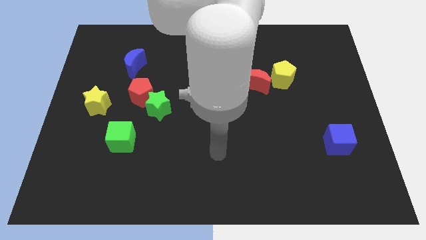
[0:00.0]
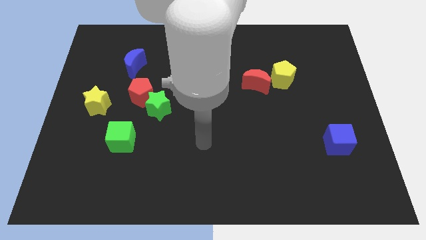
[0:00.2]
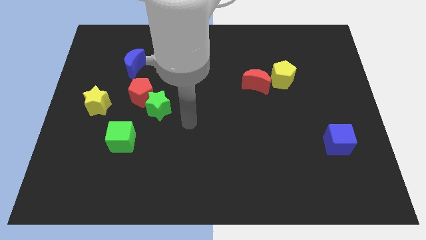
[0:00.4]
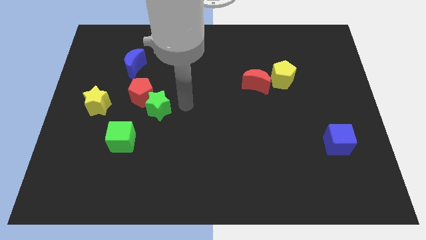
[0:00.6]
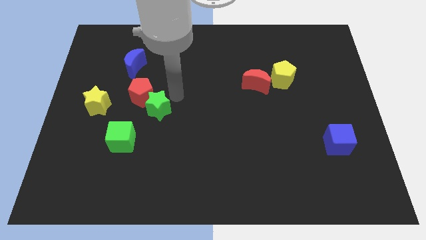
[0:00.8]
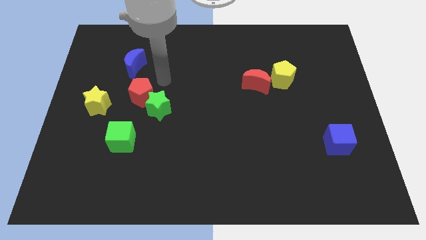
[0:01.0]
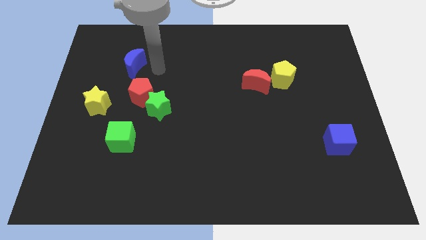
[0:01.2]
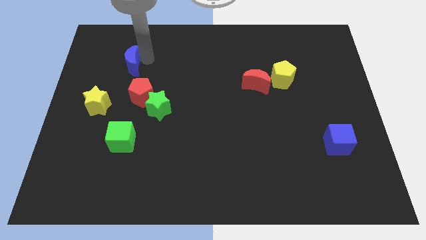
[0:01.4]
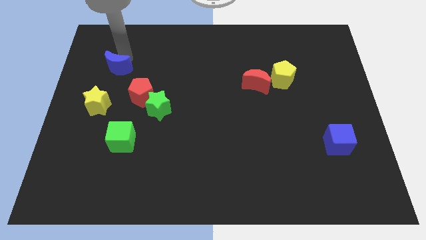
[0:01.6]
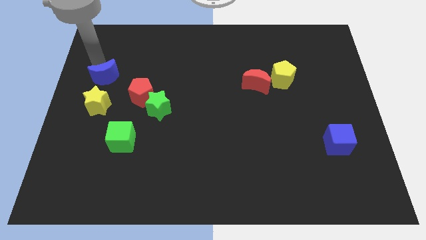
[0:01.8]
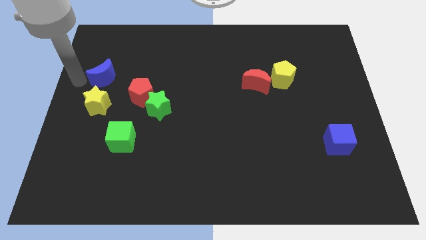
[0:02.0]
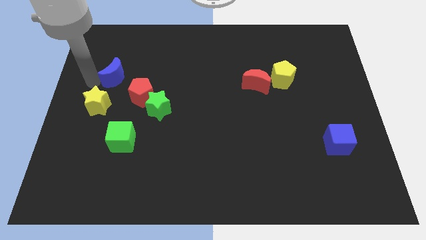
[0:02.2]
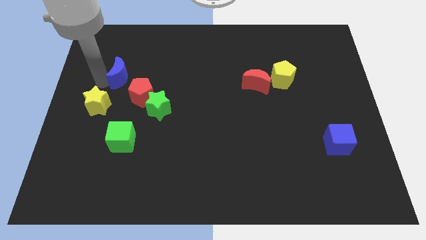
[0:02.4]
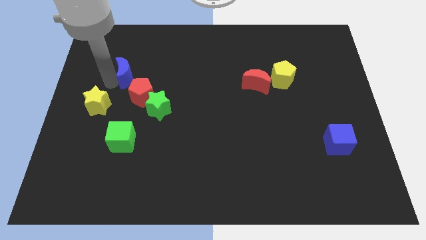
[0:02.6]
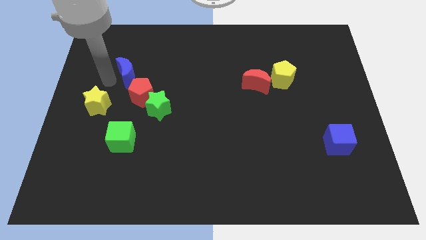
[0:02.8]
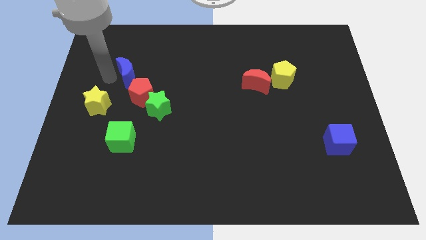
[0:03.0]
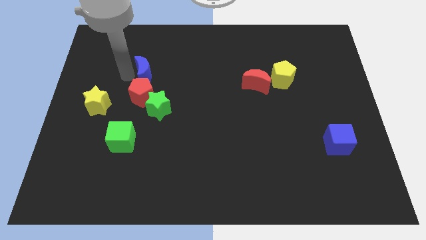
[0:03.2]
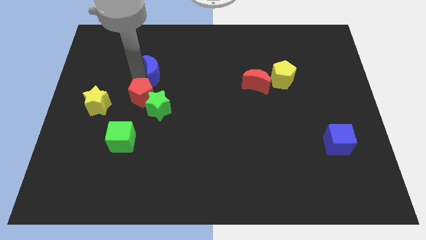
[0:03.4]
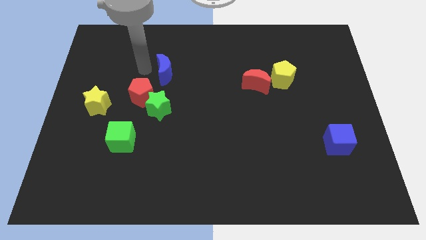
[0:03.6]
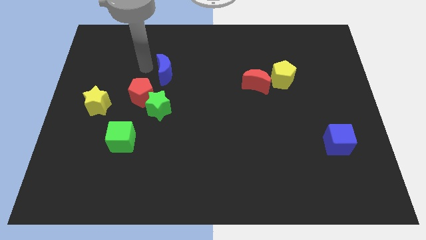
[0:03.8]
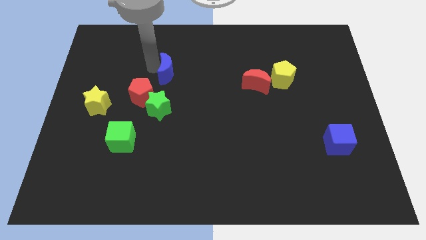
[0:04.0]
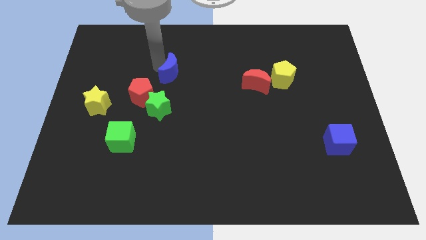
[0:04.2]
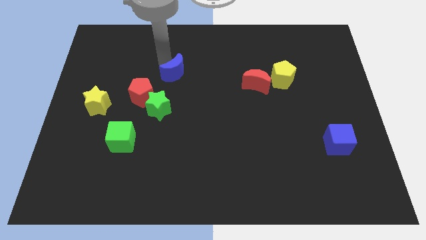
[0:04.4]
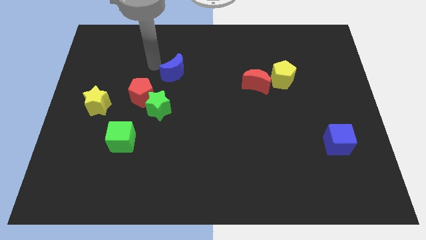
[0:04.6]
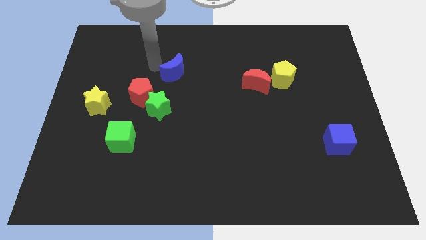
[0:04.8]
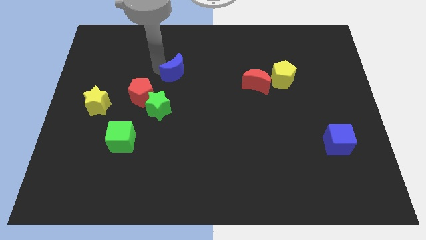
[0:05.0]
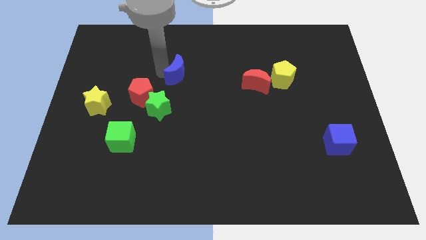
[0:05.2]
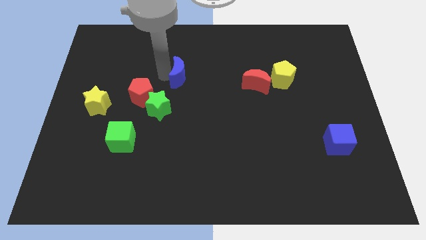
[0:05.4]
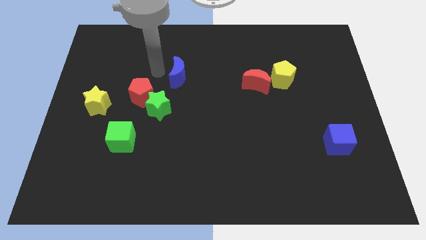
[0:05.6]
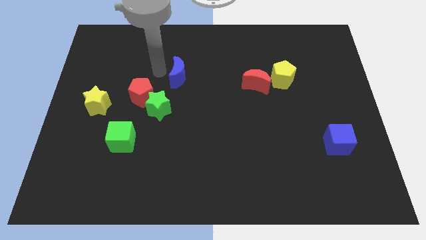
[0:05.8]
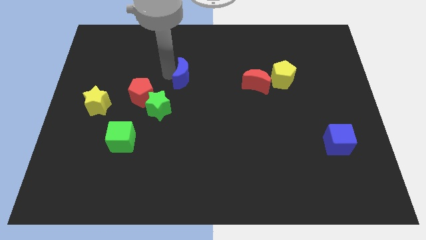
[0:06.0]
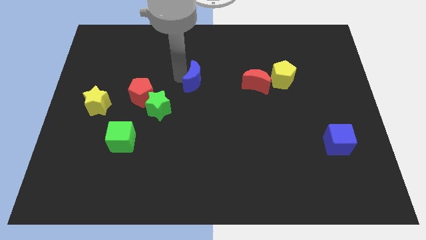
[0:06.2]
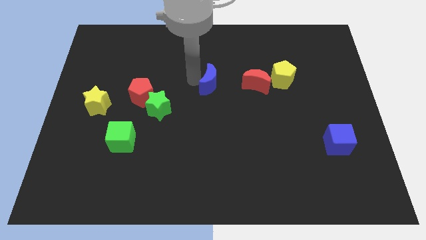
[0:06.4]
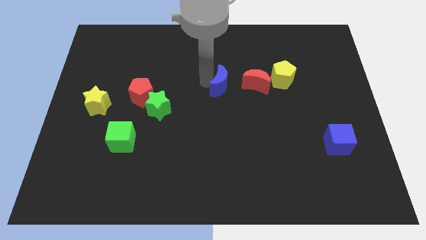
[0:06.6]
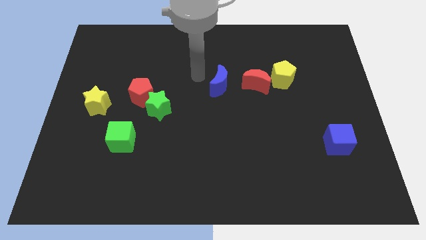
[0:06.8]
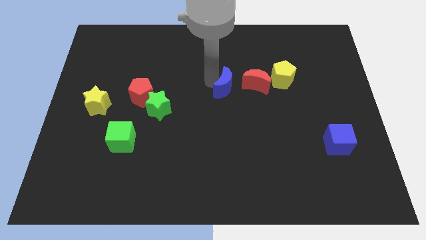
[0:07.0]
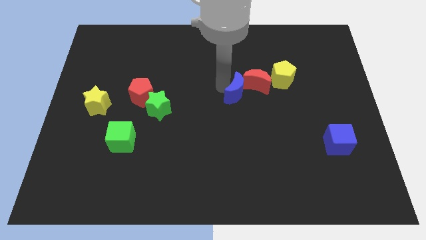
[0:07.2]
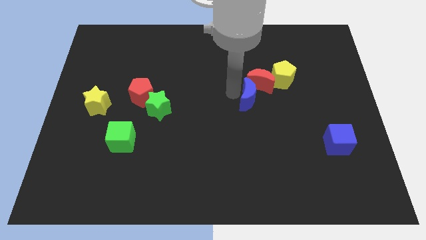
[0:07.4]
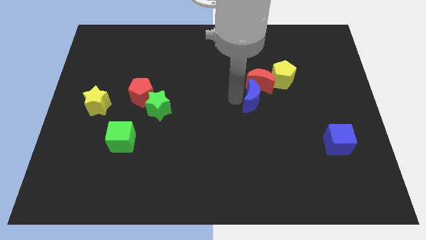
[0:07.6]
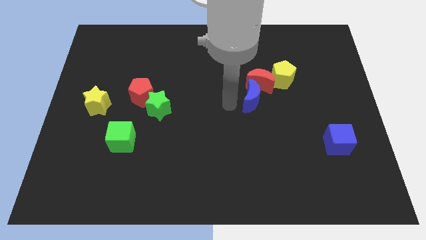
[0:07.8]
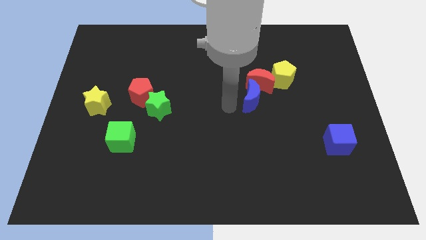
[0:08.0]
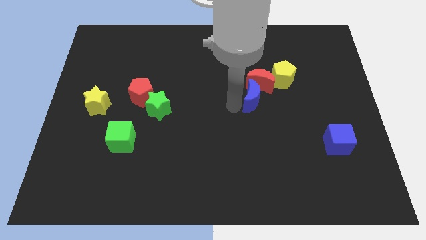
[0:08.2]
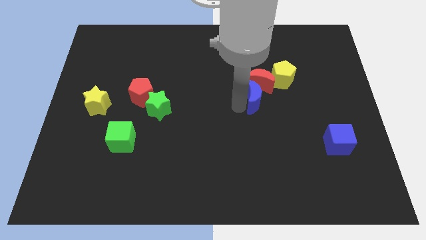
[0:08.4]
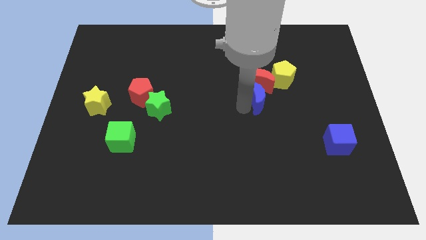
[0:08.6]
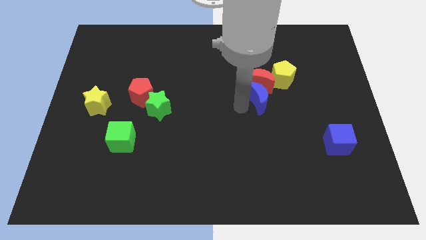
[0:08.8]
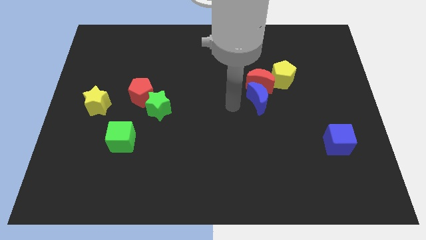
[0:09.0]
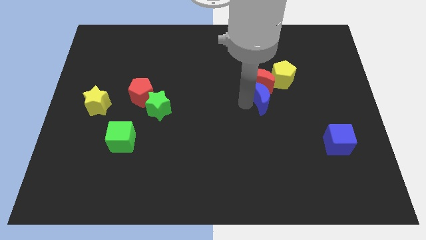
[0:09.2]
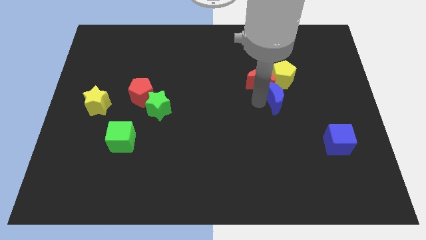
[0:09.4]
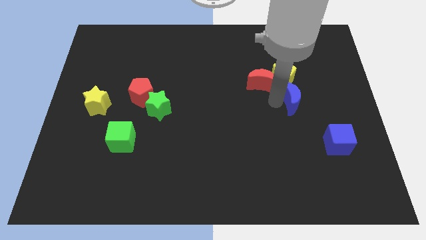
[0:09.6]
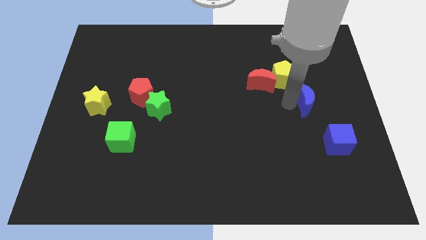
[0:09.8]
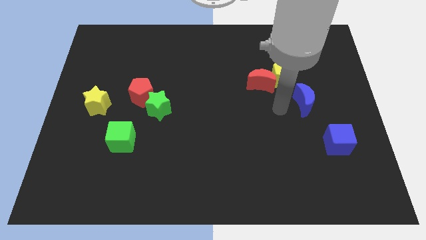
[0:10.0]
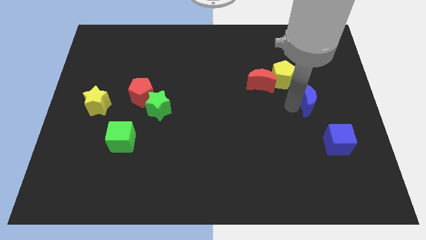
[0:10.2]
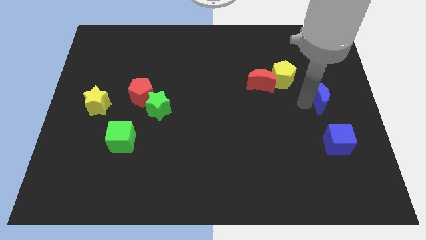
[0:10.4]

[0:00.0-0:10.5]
slide the blue moon to the center right
